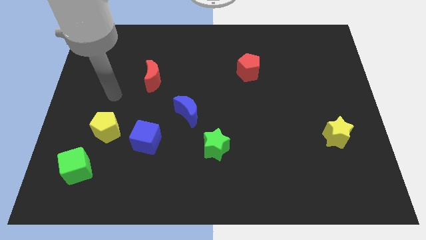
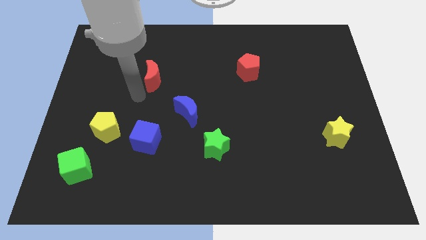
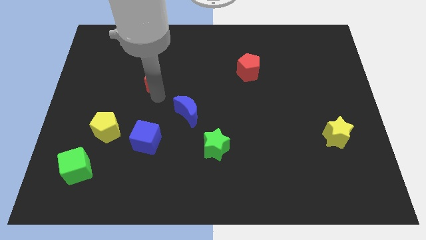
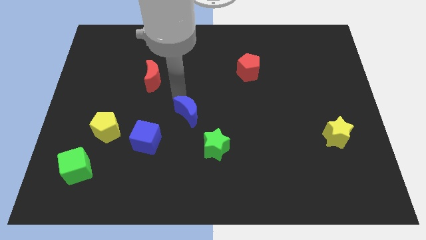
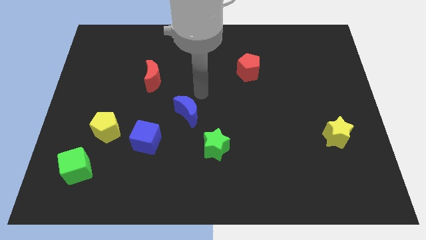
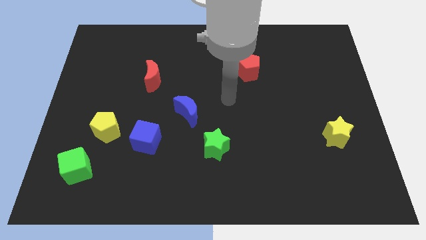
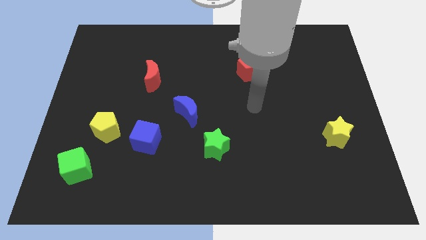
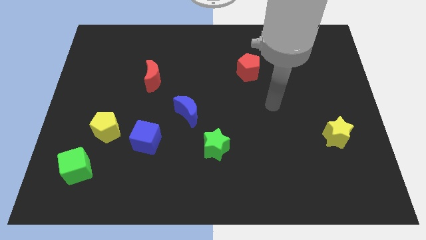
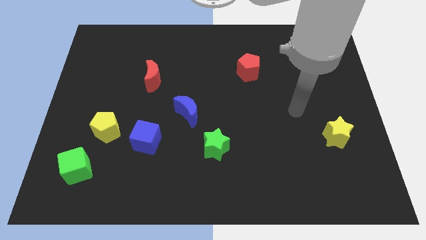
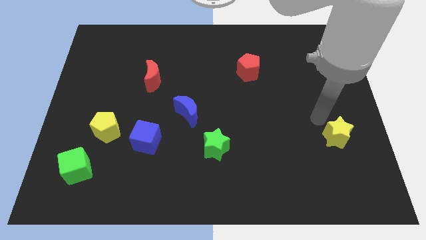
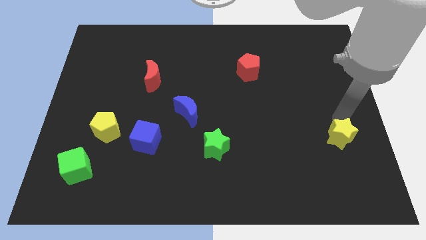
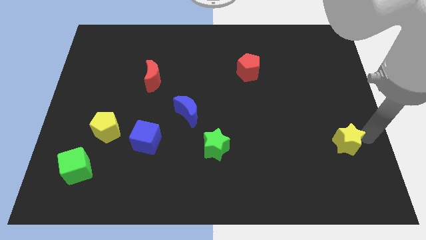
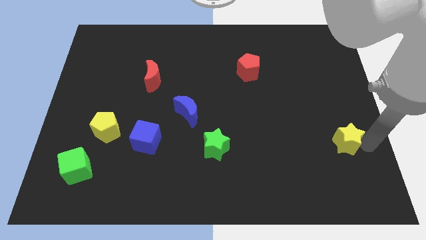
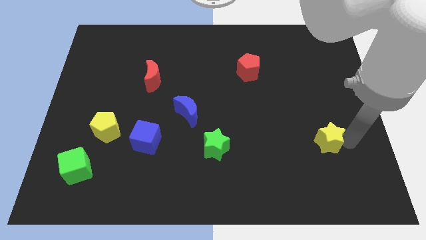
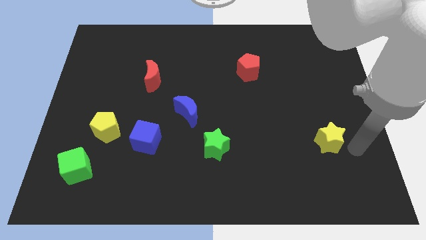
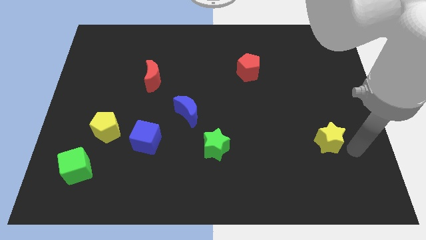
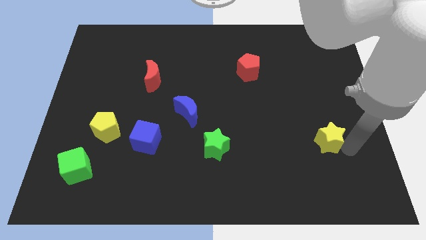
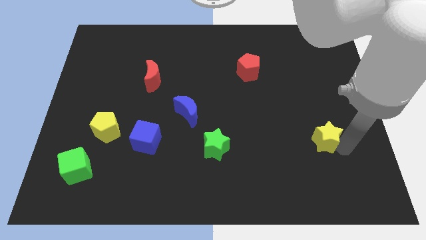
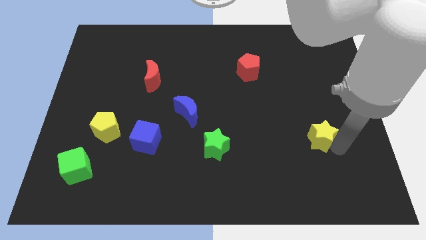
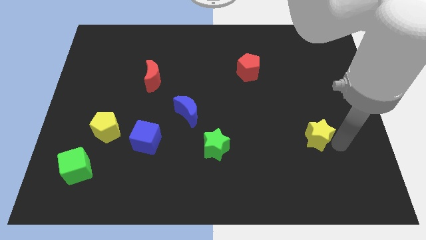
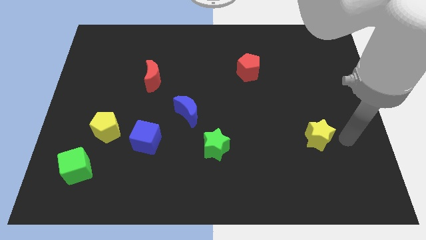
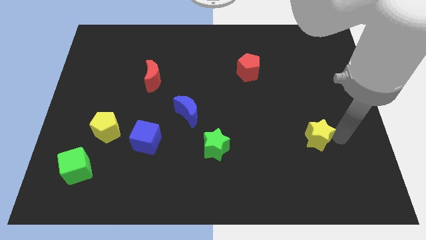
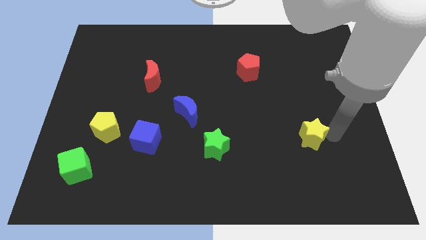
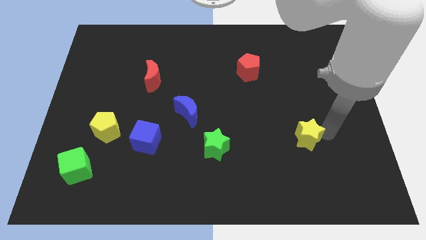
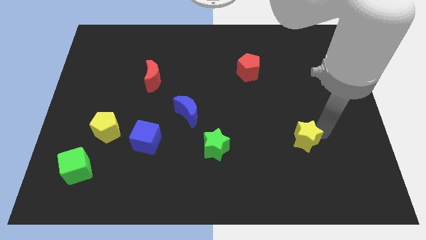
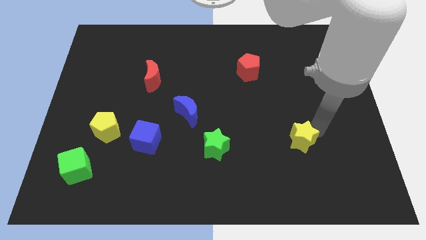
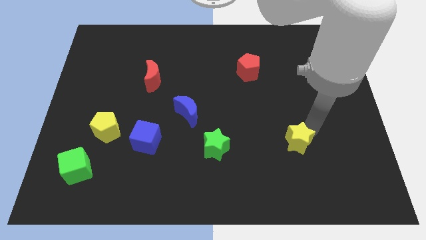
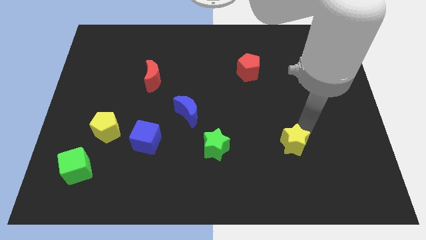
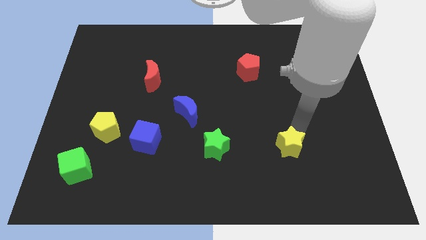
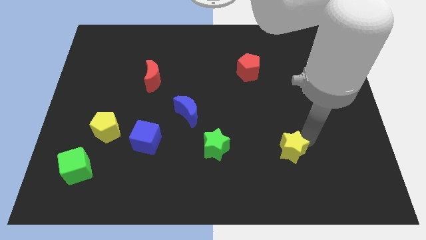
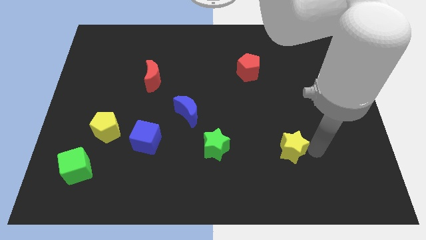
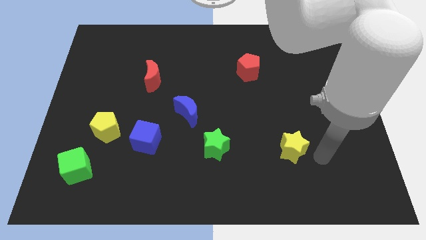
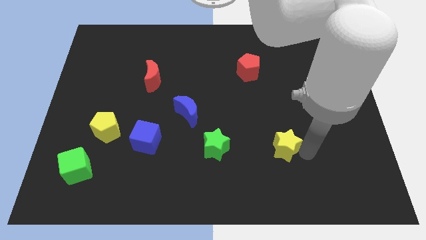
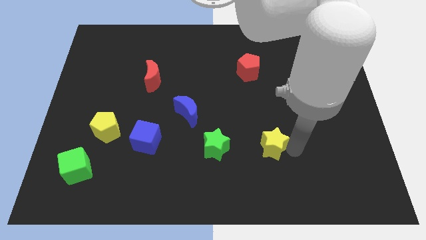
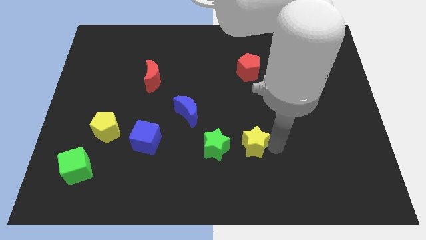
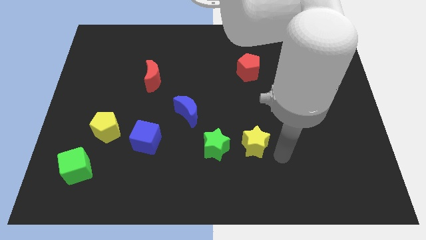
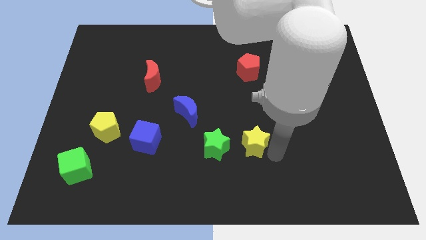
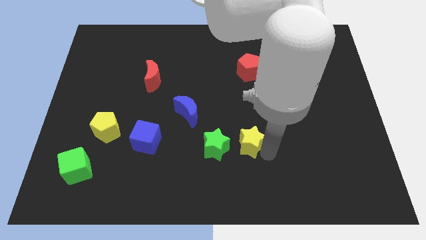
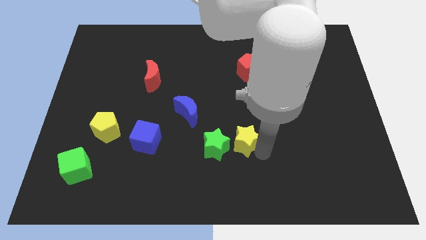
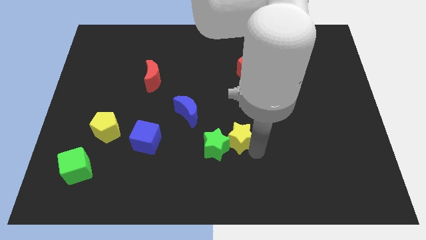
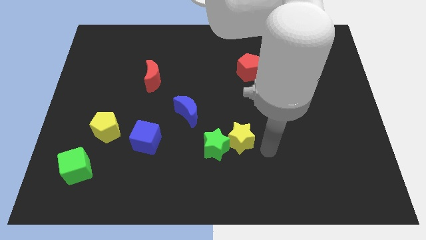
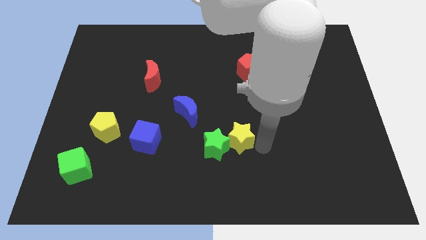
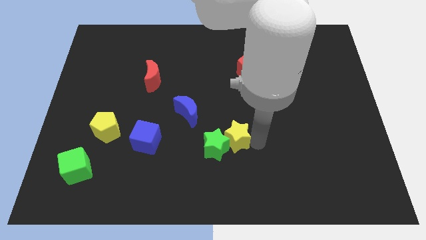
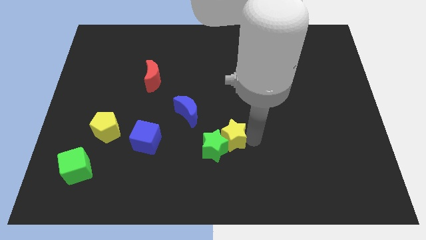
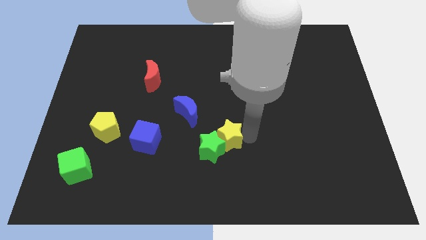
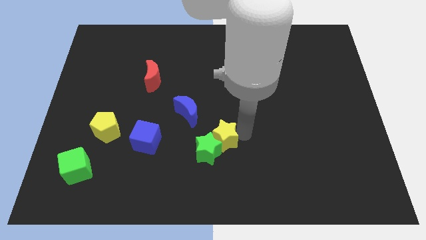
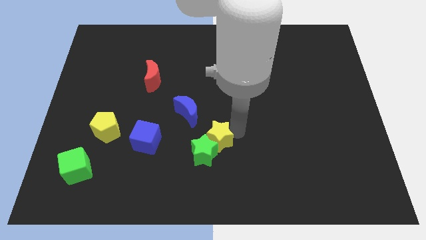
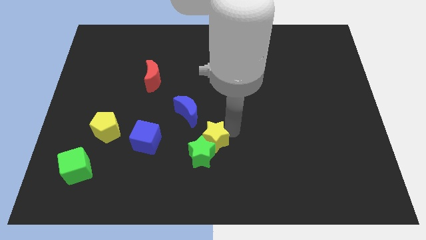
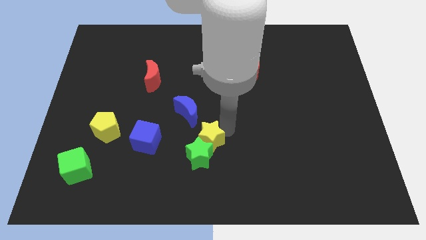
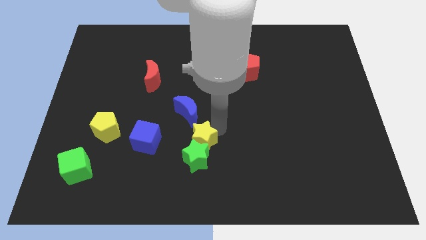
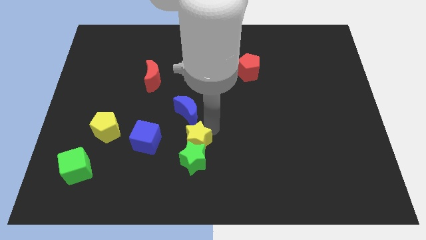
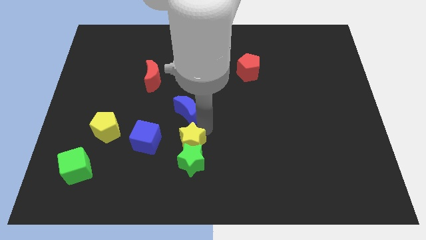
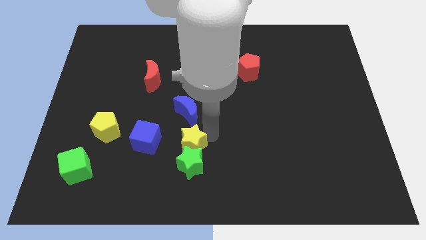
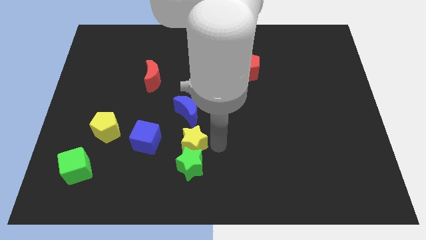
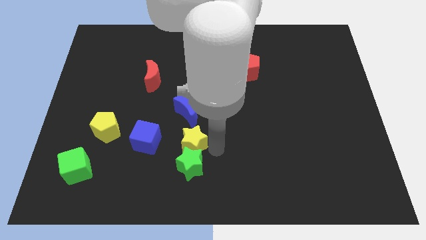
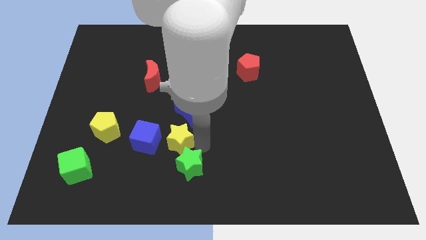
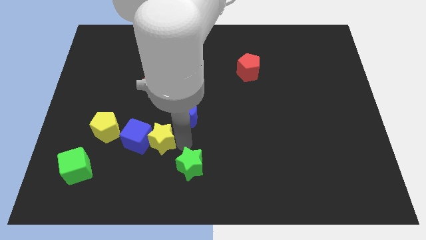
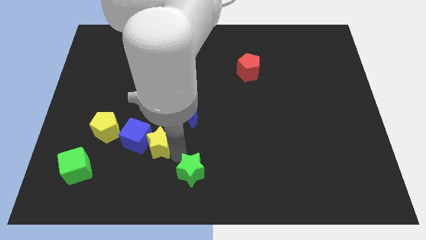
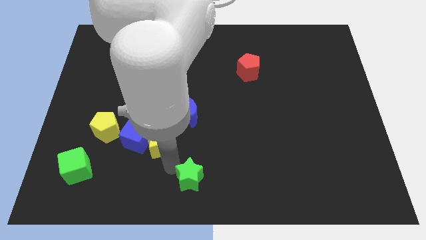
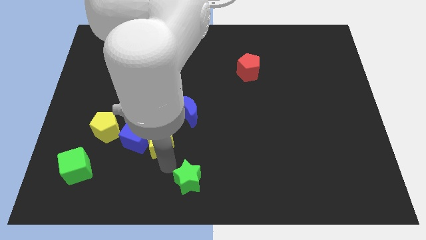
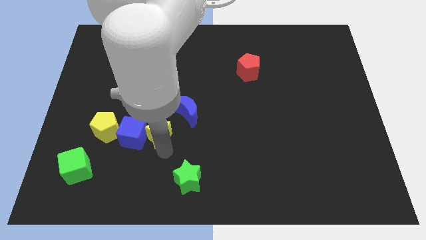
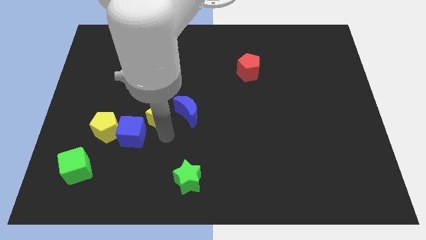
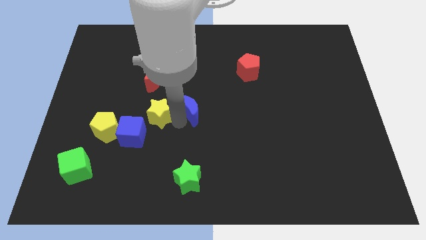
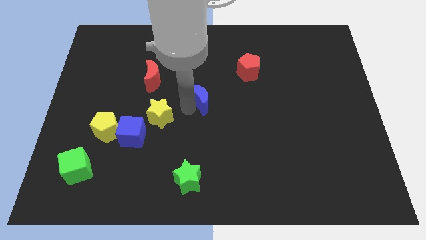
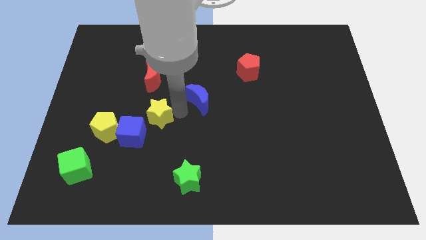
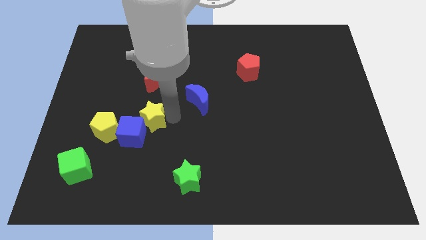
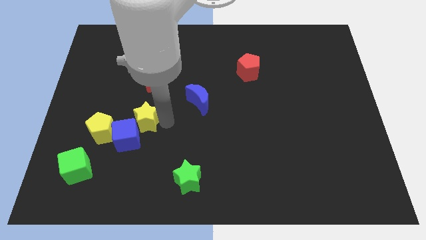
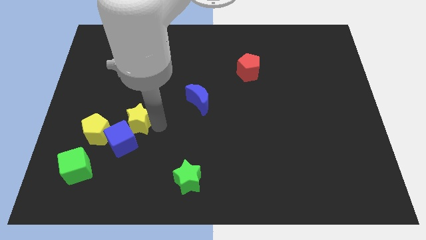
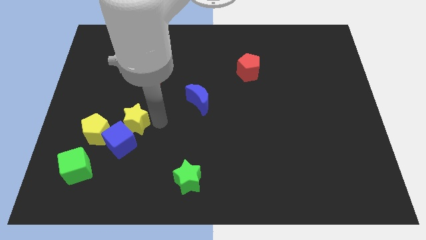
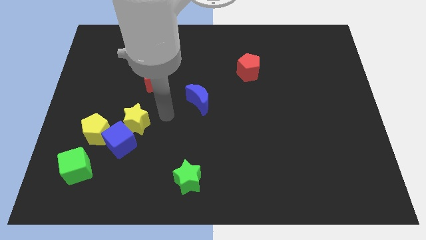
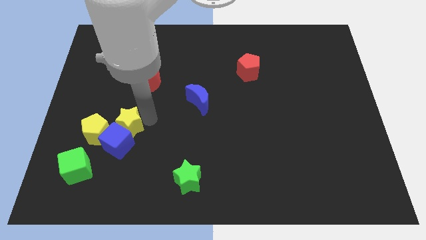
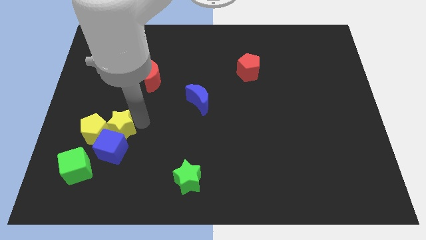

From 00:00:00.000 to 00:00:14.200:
put the yellow star to the yellow pentagon

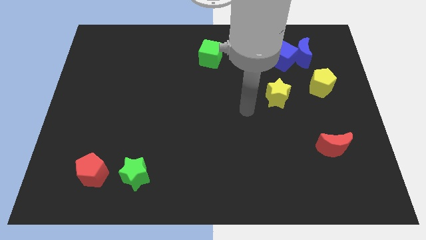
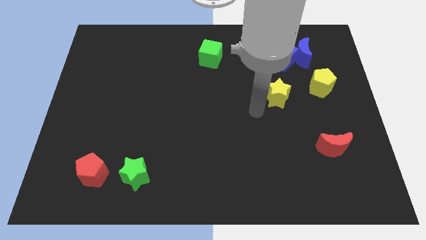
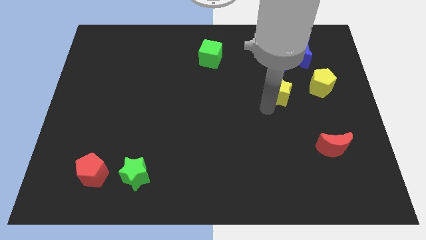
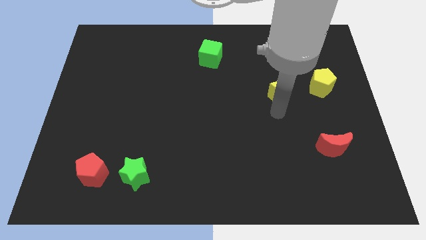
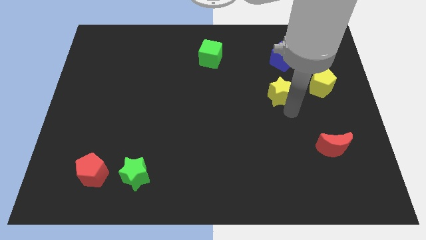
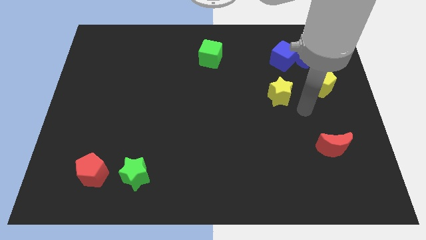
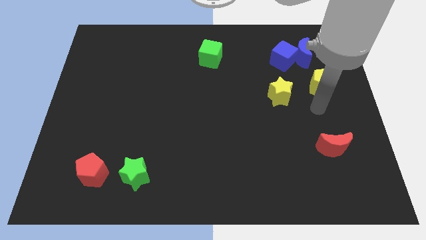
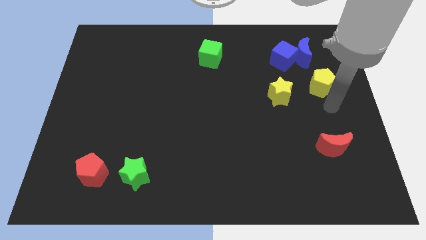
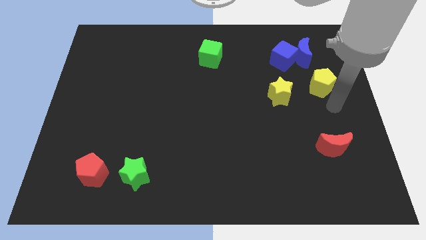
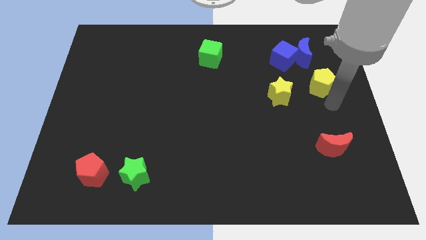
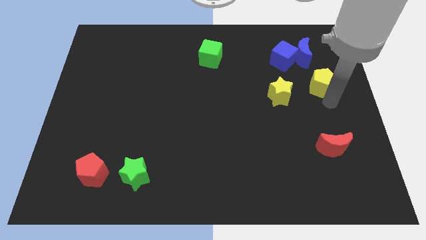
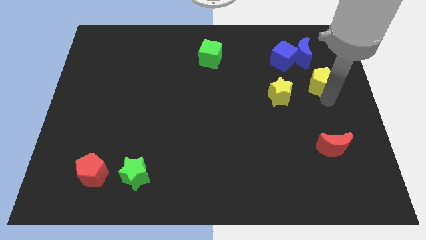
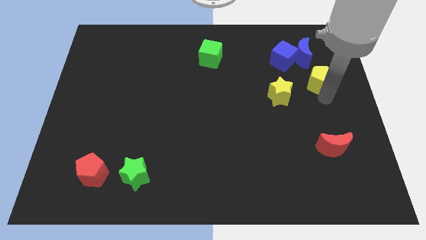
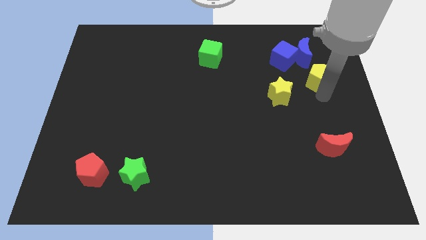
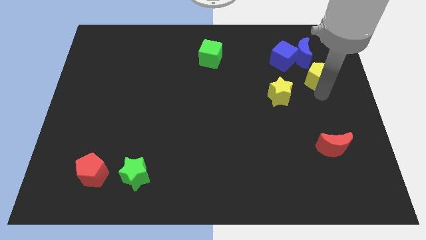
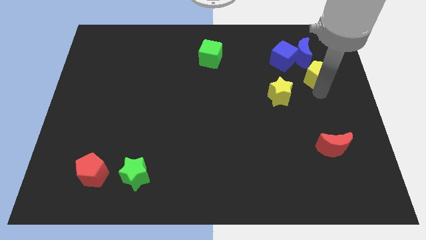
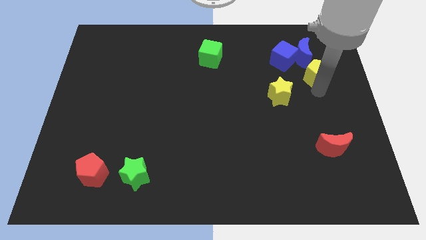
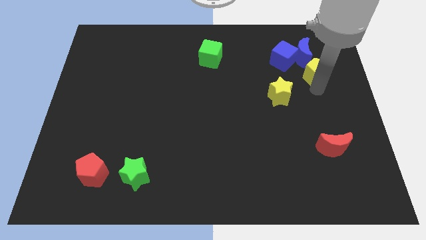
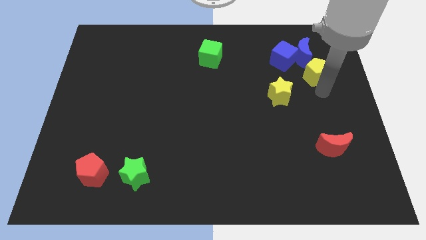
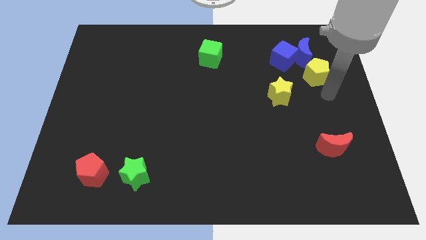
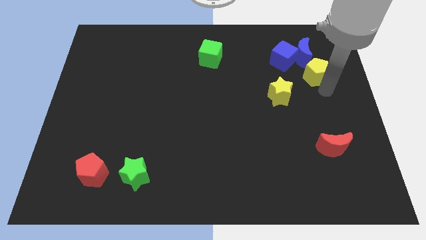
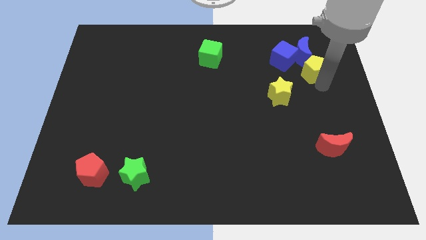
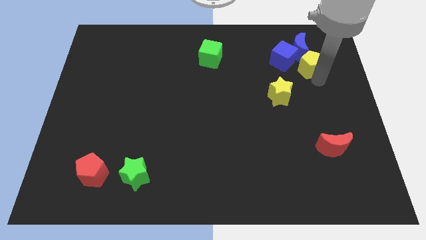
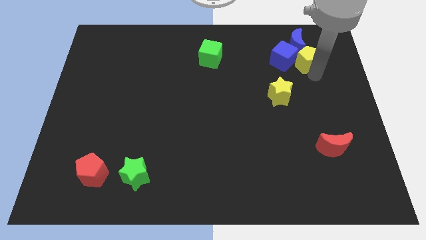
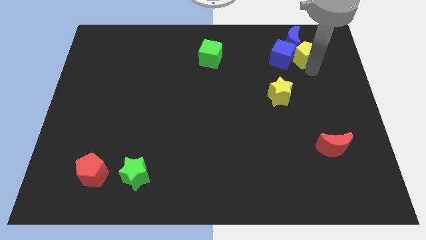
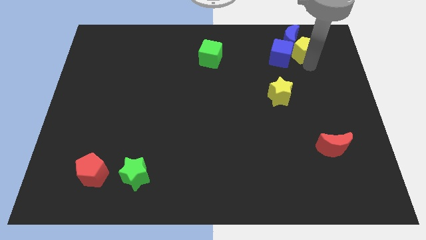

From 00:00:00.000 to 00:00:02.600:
push the yellow pentagon to the blue moon
